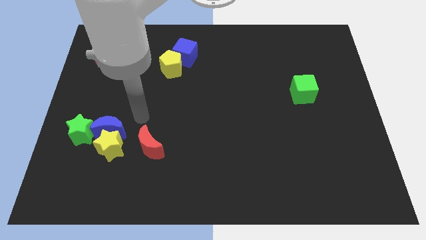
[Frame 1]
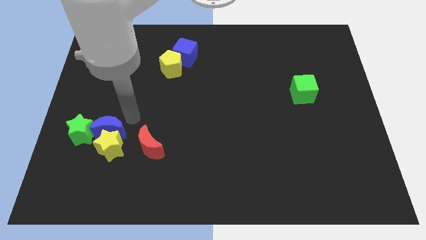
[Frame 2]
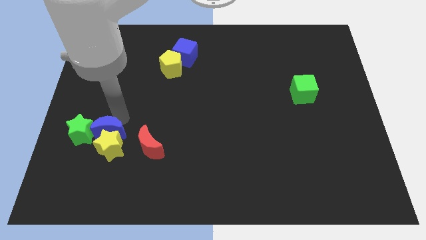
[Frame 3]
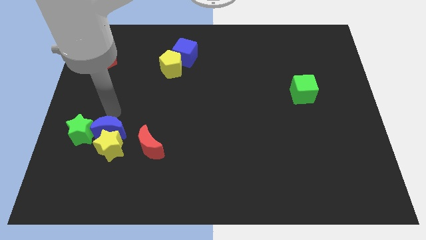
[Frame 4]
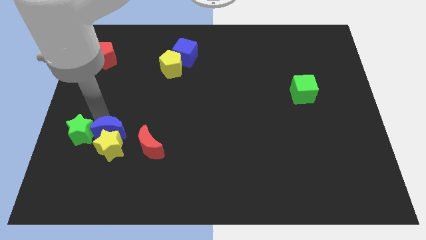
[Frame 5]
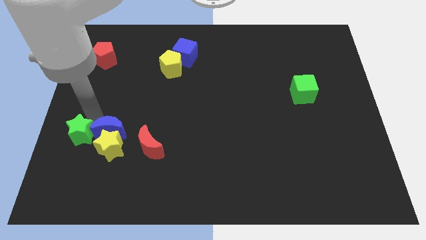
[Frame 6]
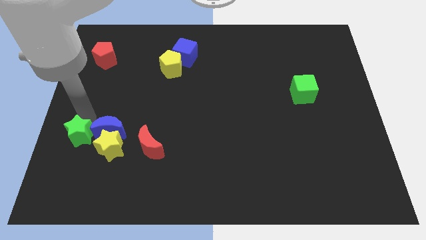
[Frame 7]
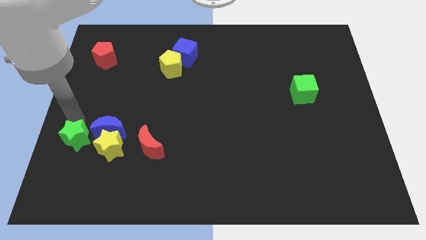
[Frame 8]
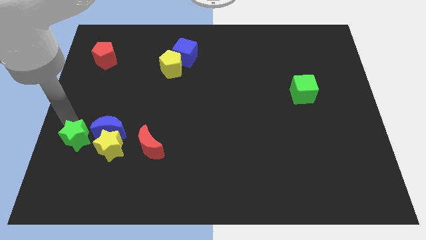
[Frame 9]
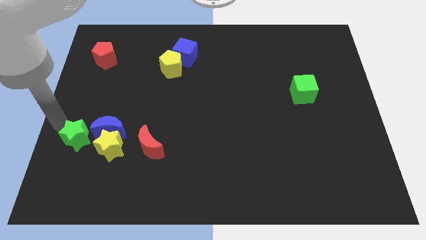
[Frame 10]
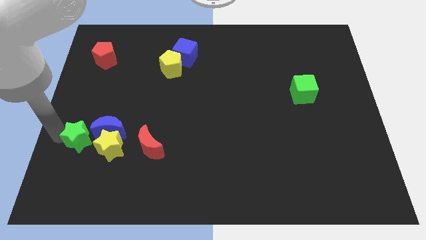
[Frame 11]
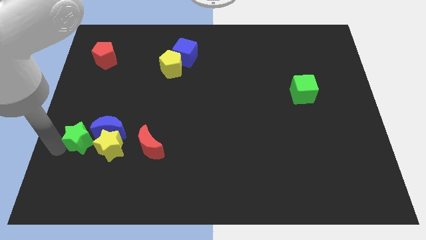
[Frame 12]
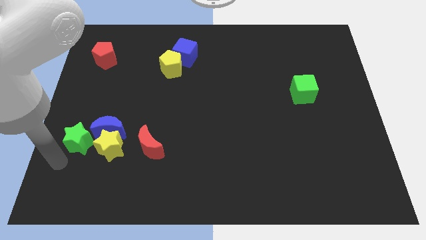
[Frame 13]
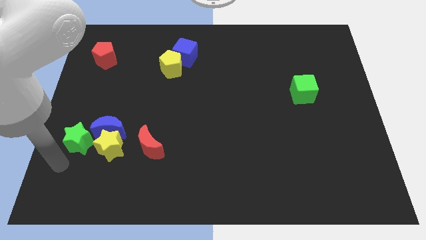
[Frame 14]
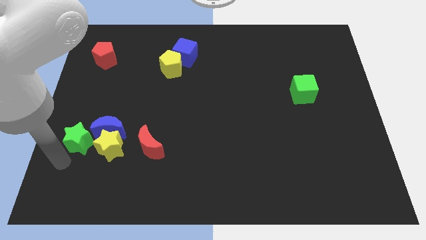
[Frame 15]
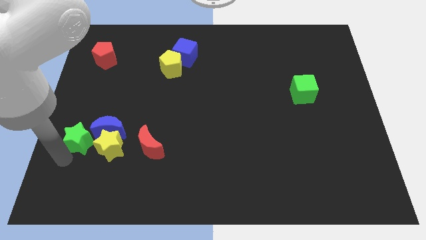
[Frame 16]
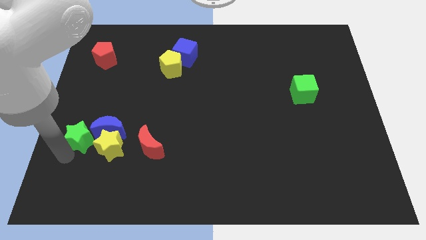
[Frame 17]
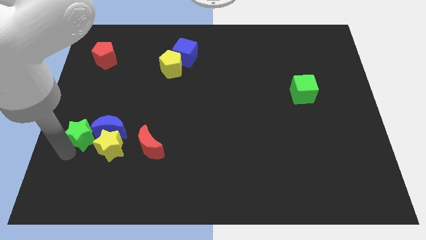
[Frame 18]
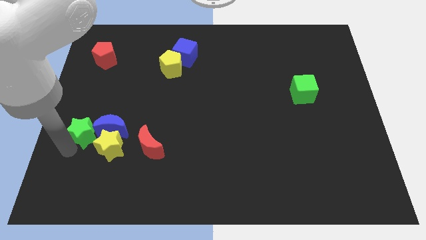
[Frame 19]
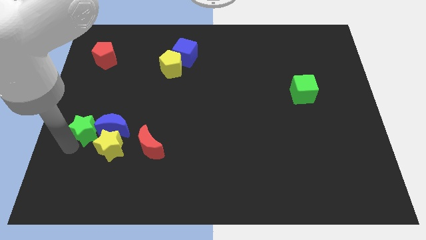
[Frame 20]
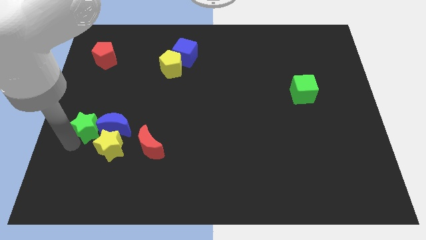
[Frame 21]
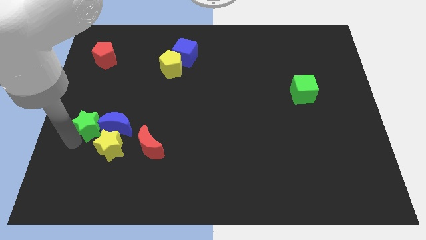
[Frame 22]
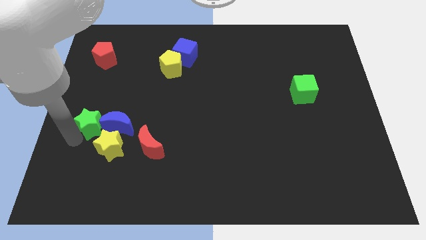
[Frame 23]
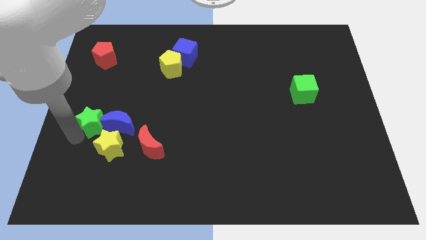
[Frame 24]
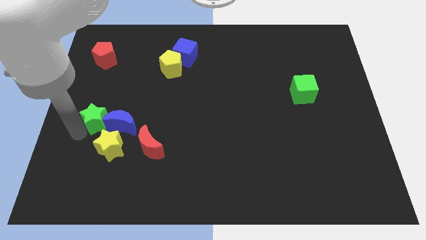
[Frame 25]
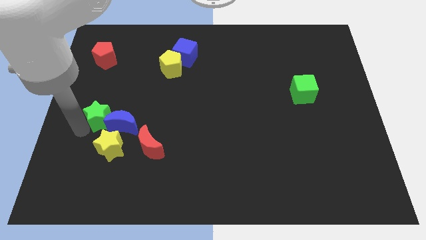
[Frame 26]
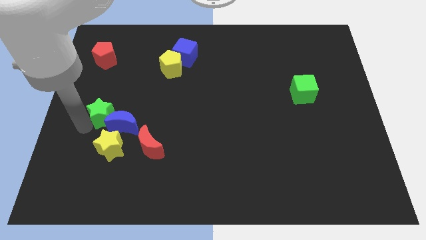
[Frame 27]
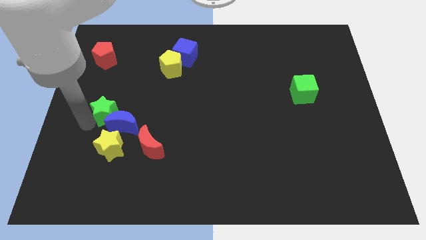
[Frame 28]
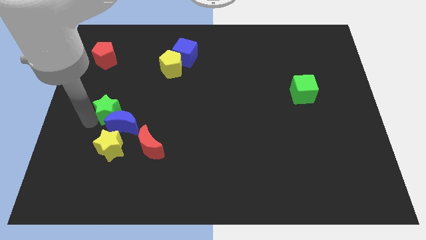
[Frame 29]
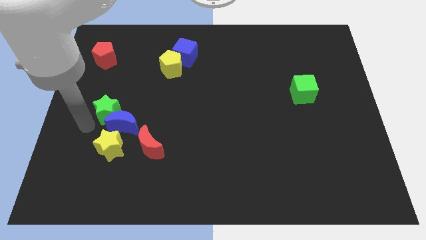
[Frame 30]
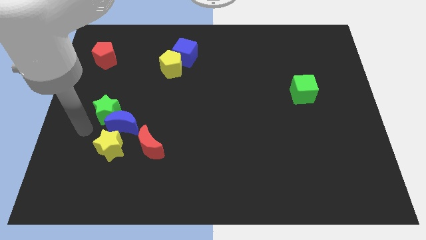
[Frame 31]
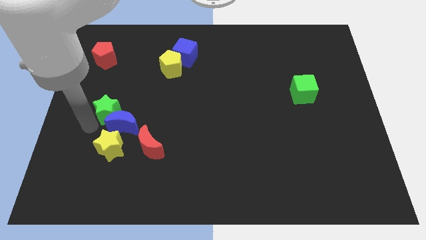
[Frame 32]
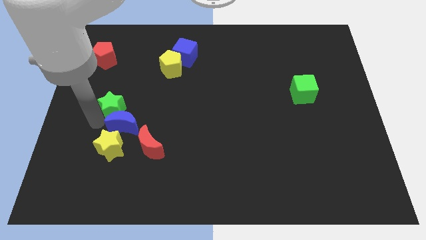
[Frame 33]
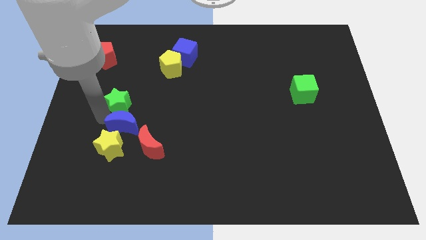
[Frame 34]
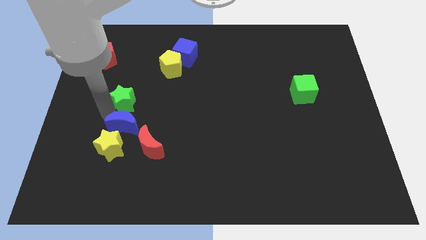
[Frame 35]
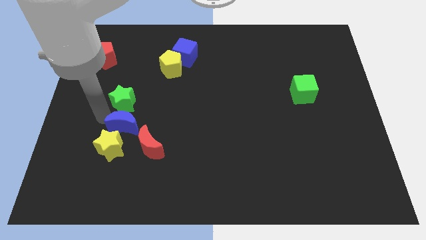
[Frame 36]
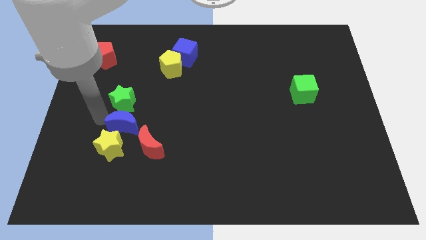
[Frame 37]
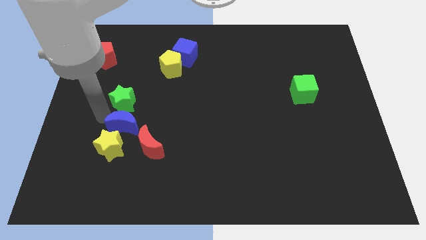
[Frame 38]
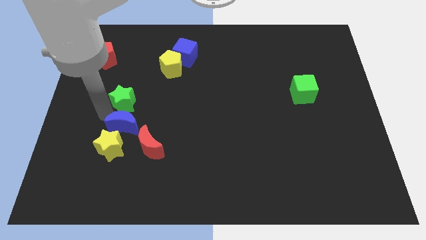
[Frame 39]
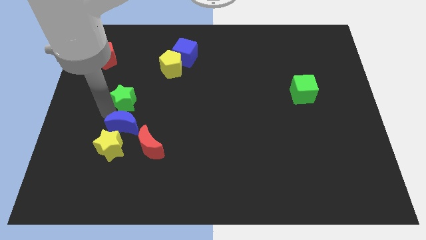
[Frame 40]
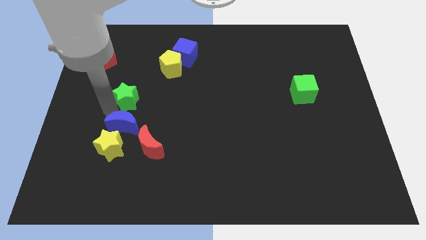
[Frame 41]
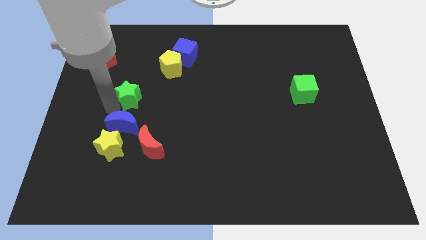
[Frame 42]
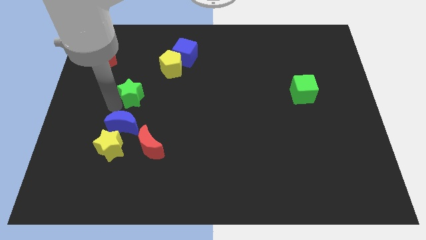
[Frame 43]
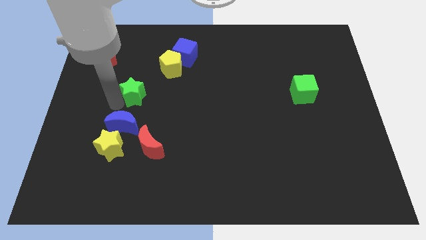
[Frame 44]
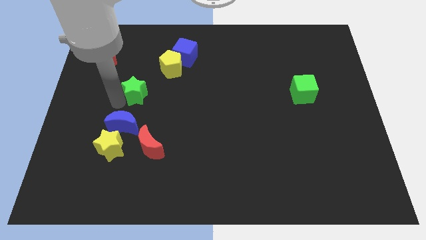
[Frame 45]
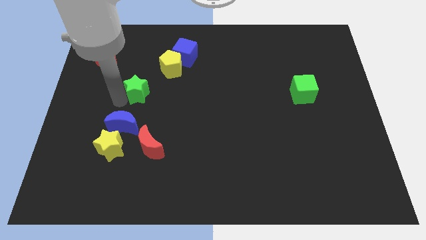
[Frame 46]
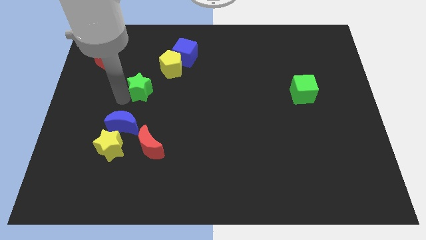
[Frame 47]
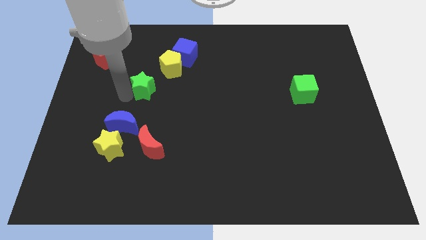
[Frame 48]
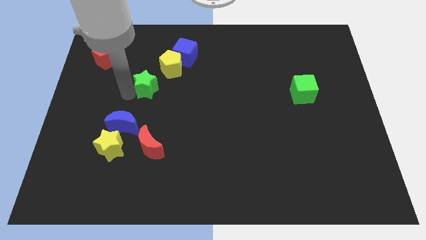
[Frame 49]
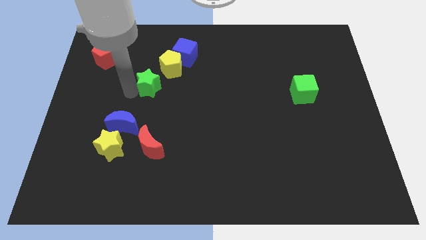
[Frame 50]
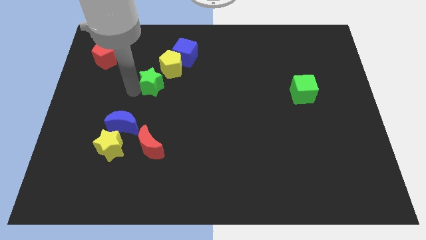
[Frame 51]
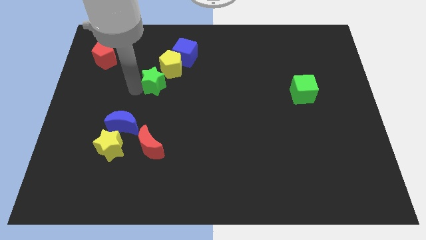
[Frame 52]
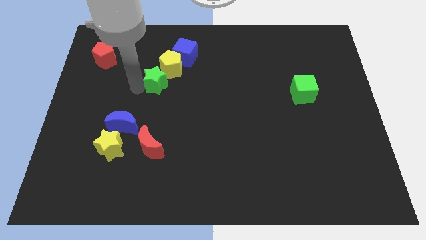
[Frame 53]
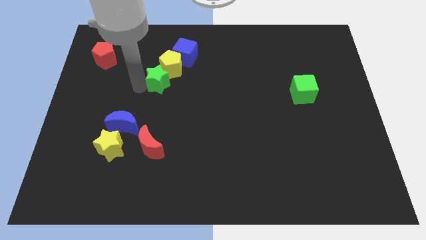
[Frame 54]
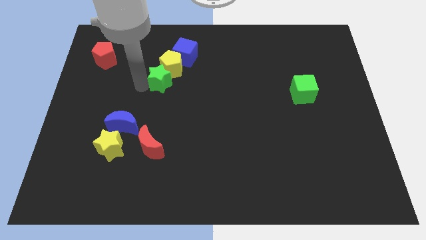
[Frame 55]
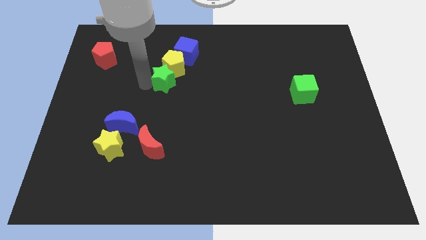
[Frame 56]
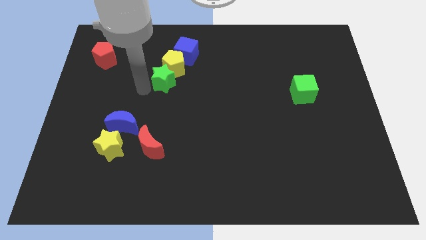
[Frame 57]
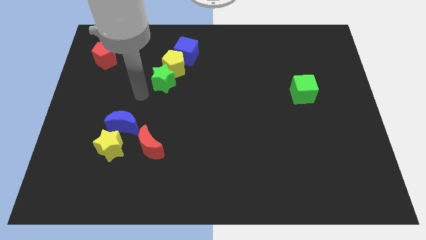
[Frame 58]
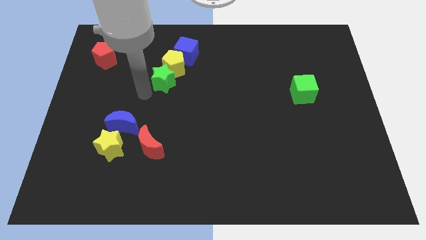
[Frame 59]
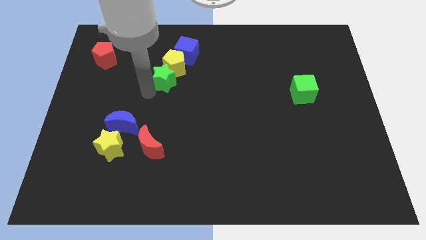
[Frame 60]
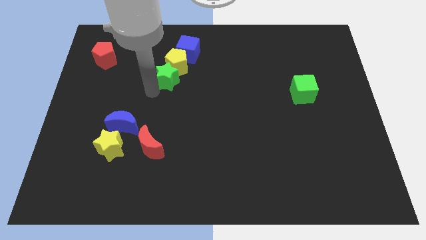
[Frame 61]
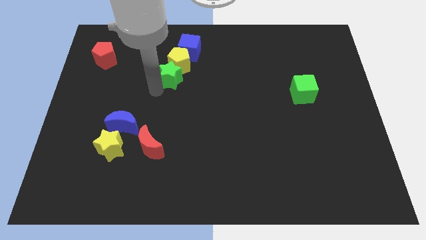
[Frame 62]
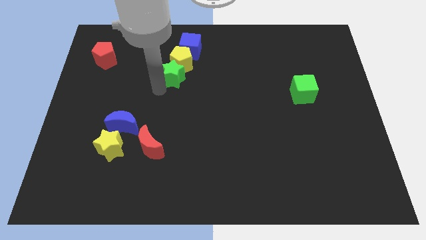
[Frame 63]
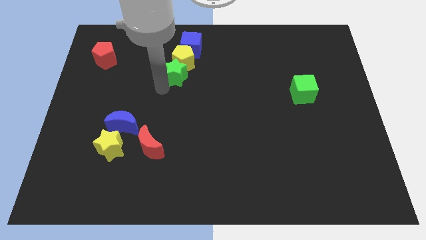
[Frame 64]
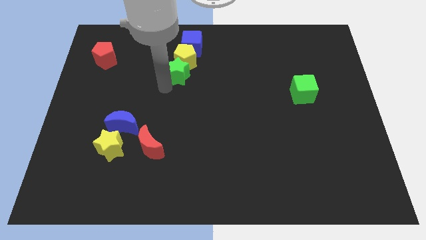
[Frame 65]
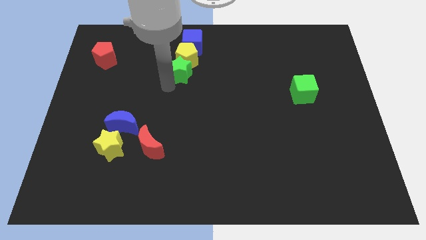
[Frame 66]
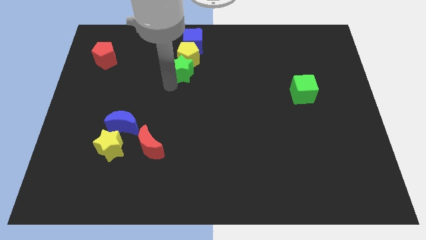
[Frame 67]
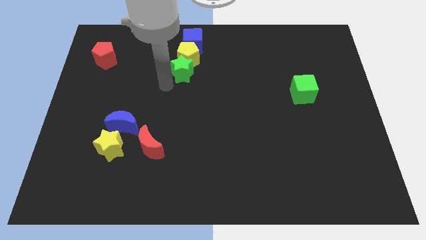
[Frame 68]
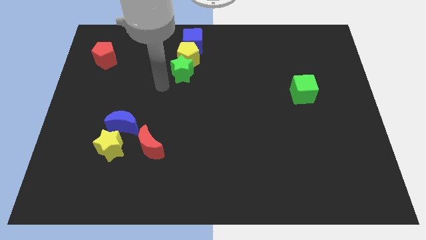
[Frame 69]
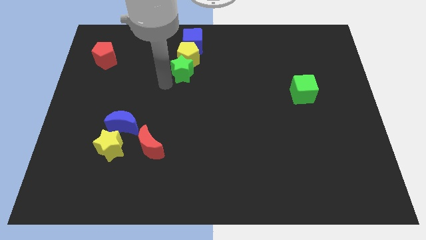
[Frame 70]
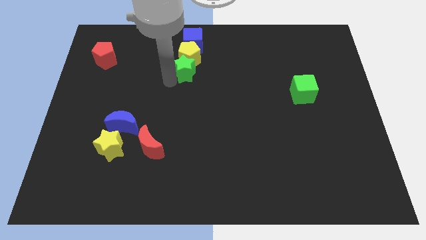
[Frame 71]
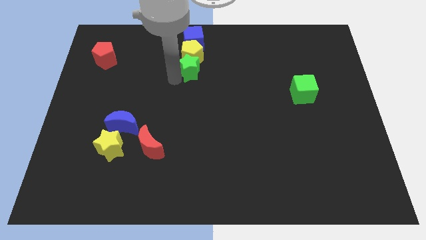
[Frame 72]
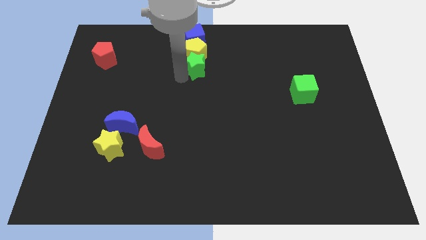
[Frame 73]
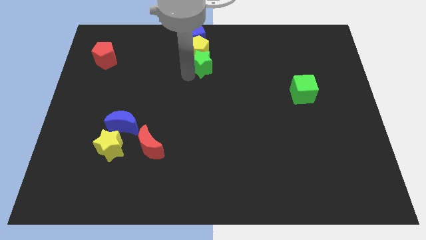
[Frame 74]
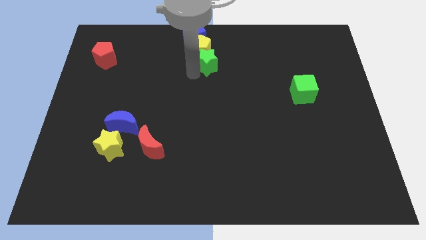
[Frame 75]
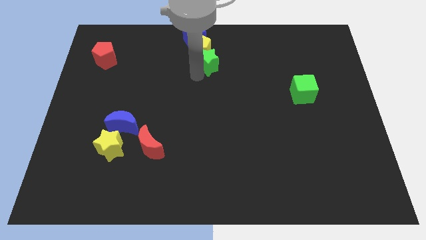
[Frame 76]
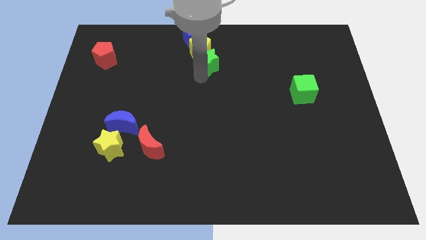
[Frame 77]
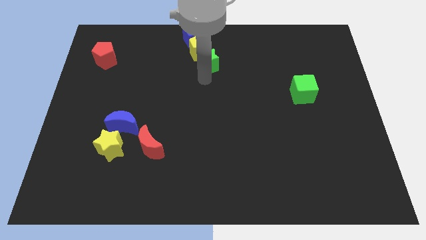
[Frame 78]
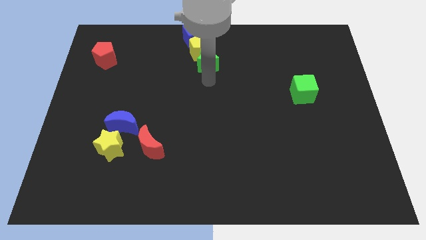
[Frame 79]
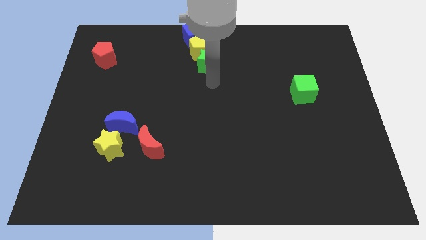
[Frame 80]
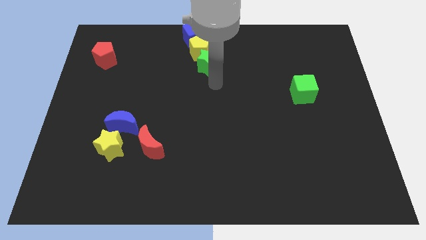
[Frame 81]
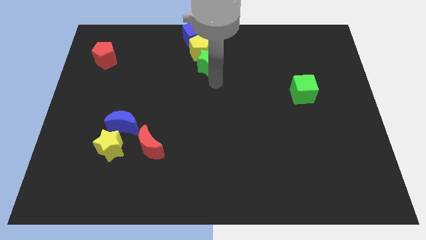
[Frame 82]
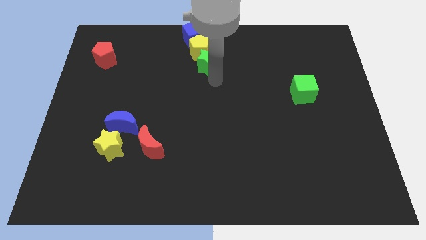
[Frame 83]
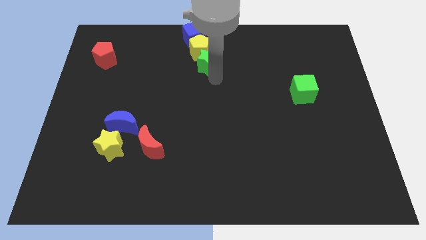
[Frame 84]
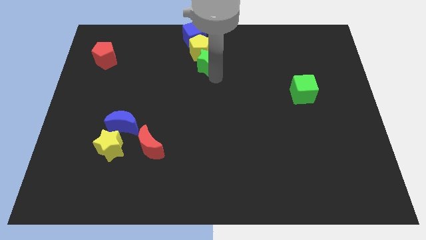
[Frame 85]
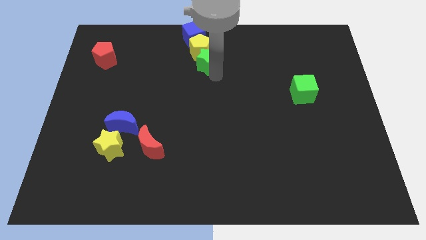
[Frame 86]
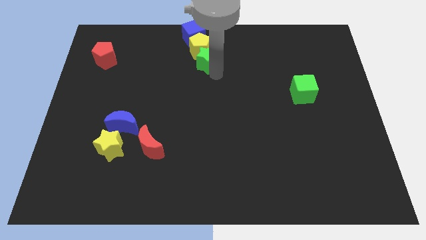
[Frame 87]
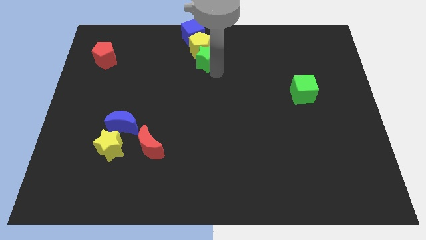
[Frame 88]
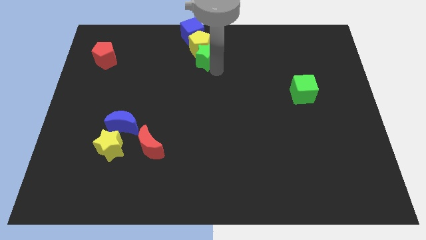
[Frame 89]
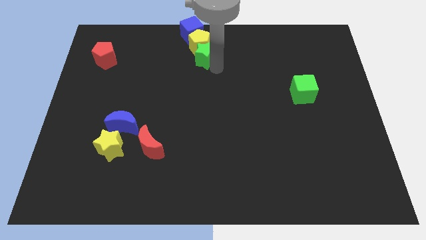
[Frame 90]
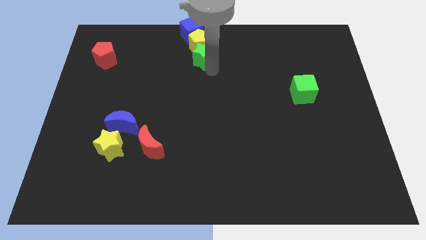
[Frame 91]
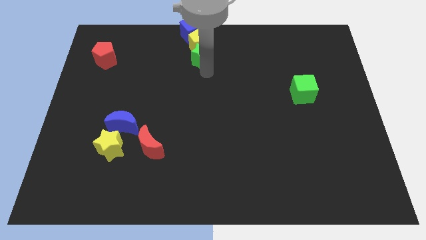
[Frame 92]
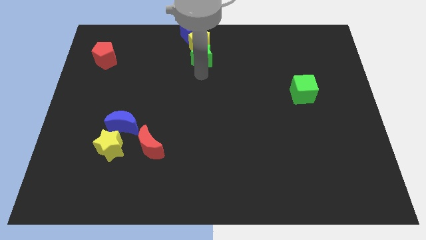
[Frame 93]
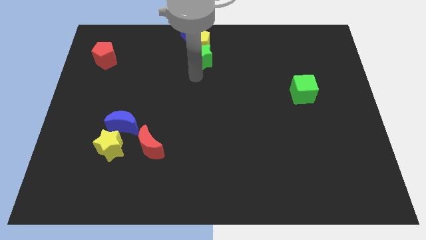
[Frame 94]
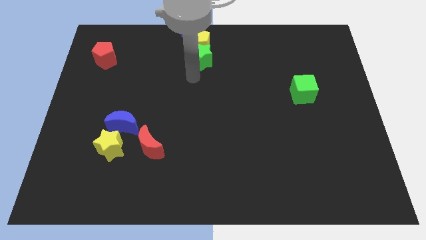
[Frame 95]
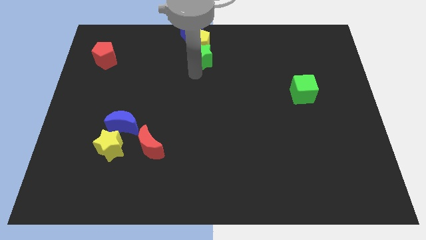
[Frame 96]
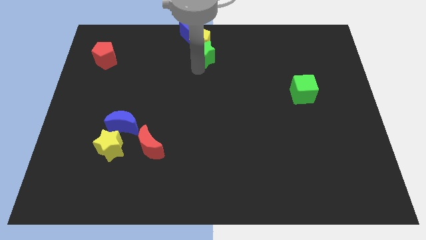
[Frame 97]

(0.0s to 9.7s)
push the green star to the towards your base
